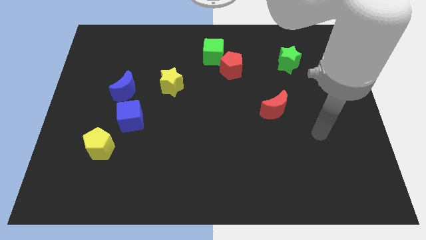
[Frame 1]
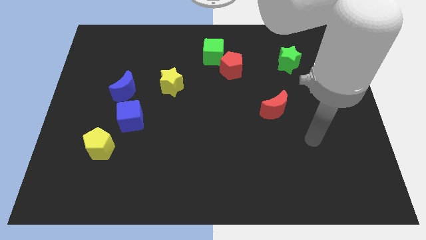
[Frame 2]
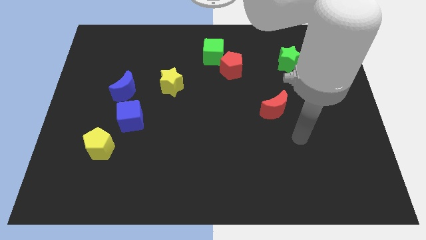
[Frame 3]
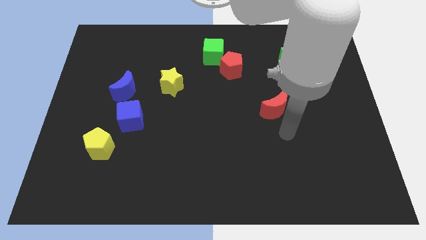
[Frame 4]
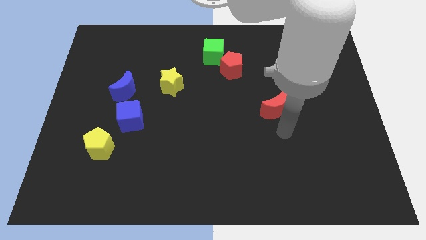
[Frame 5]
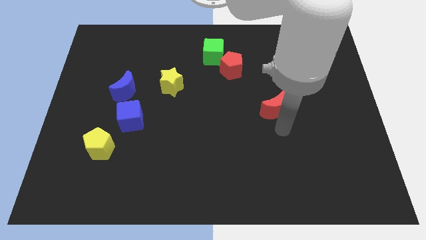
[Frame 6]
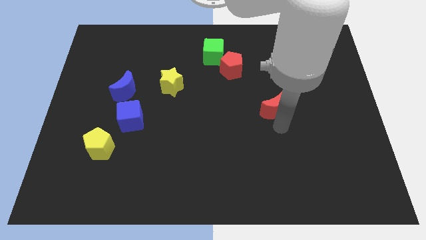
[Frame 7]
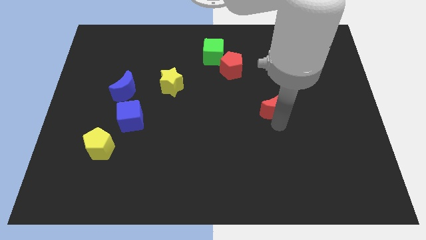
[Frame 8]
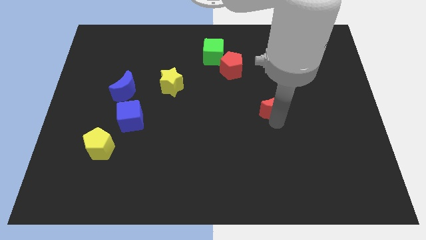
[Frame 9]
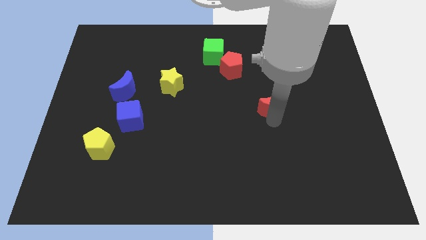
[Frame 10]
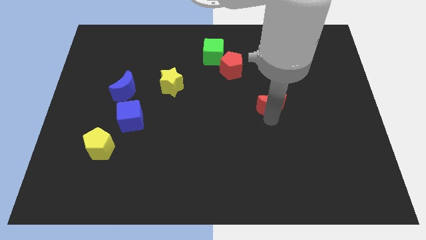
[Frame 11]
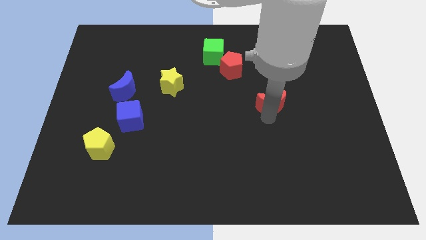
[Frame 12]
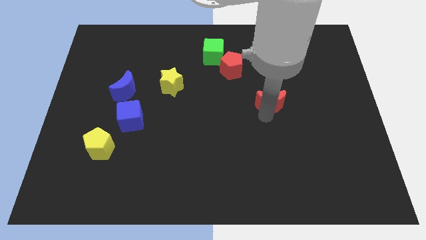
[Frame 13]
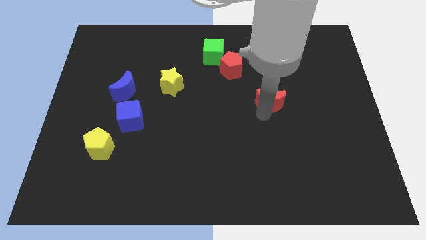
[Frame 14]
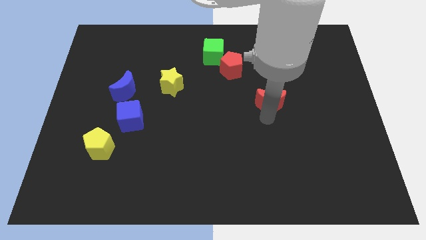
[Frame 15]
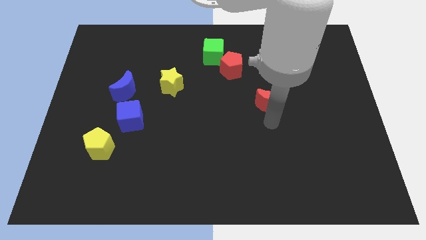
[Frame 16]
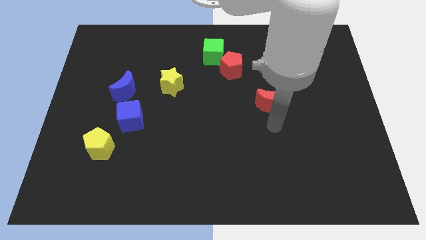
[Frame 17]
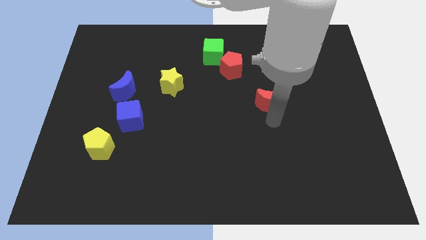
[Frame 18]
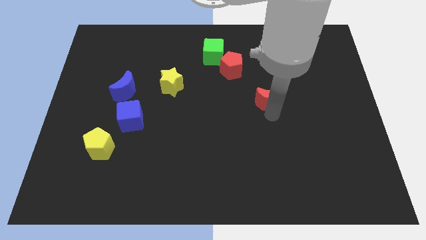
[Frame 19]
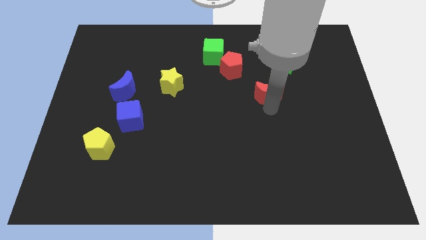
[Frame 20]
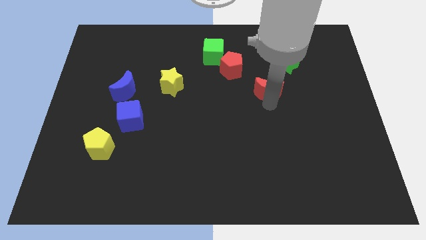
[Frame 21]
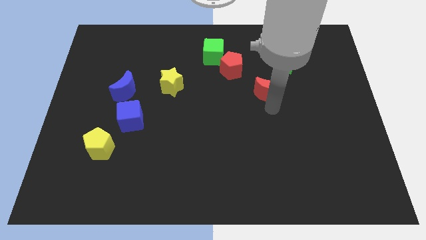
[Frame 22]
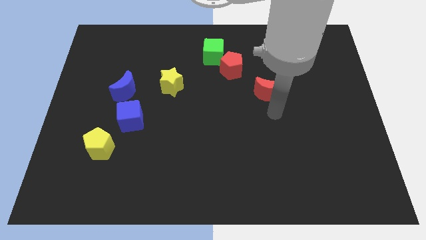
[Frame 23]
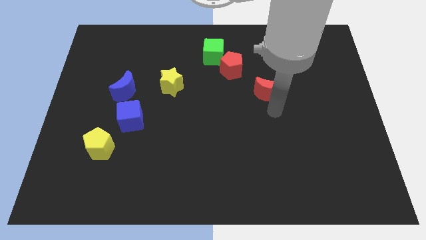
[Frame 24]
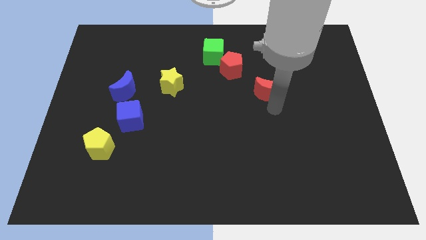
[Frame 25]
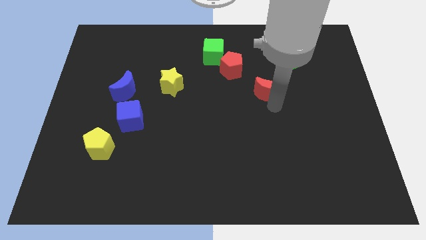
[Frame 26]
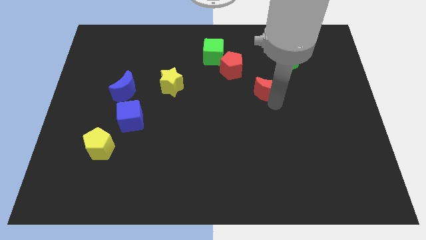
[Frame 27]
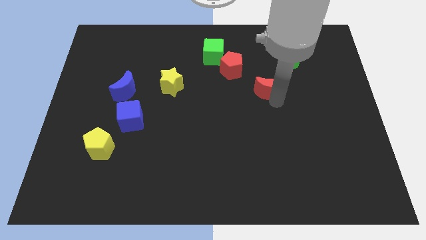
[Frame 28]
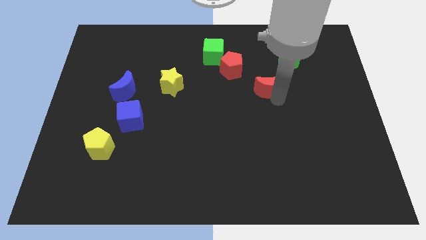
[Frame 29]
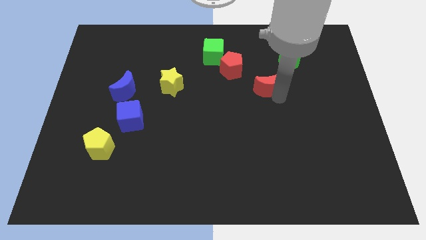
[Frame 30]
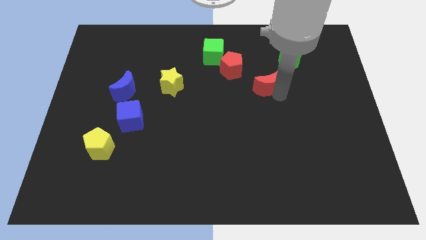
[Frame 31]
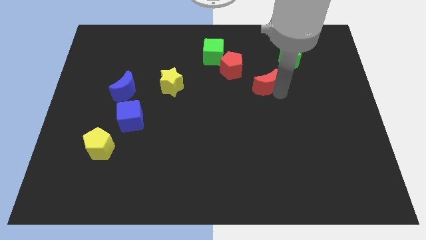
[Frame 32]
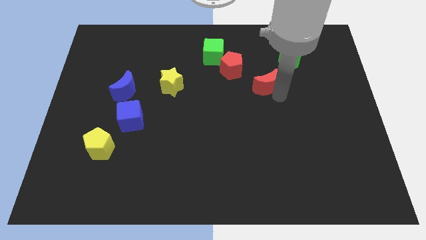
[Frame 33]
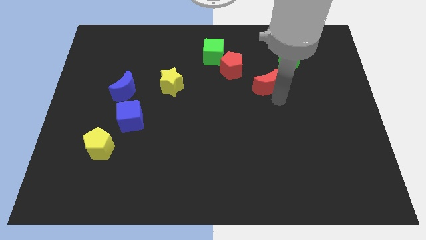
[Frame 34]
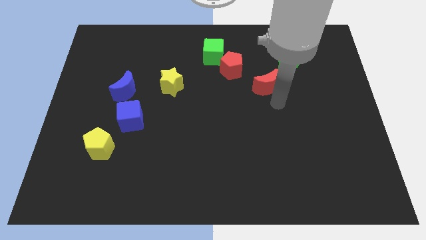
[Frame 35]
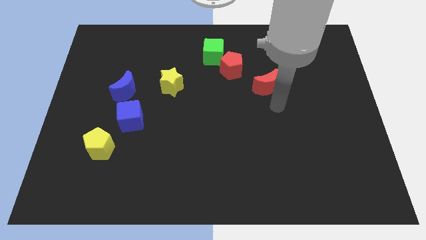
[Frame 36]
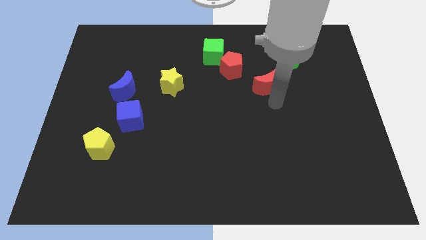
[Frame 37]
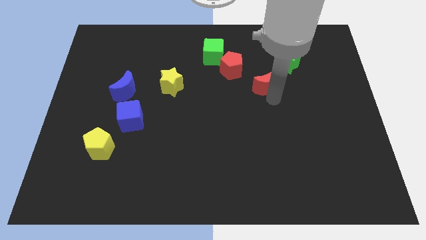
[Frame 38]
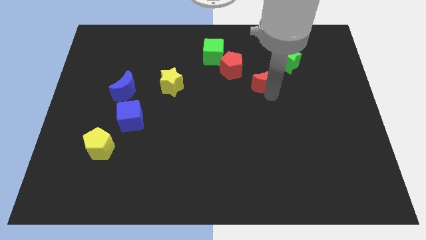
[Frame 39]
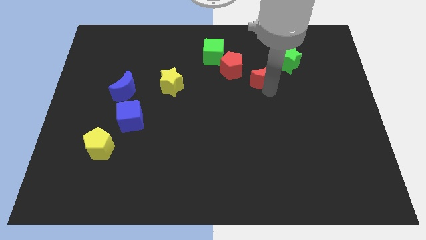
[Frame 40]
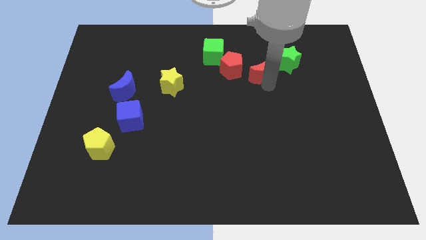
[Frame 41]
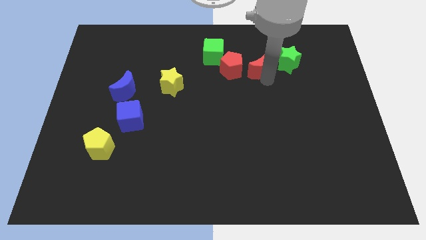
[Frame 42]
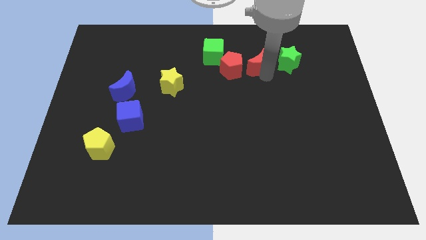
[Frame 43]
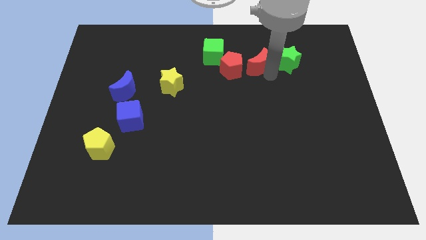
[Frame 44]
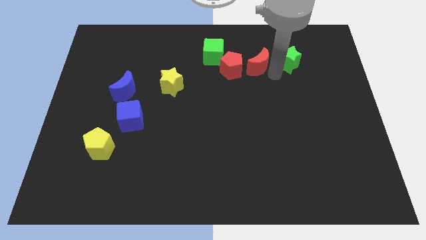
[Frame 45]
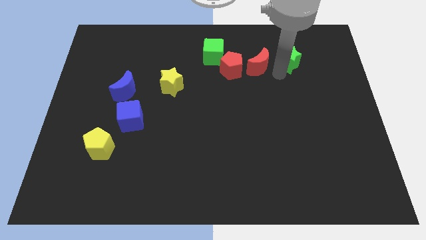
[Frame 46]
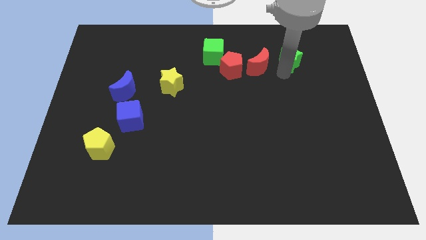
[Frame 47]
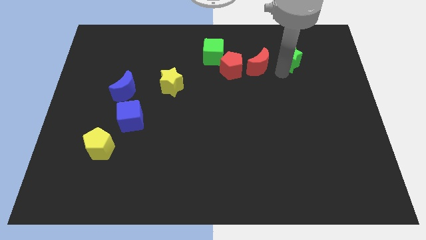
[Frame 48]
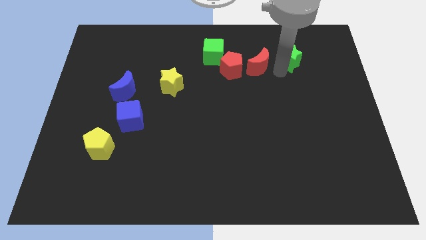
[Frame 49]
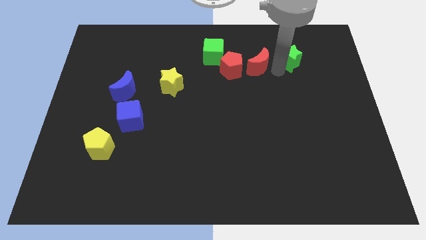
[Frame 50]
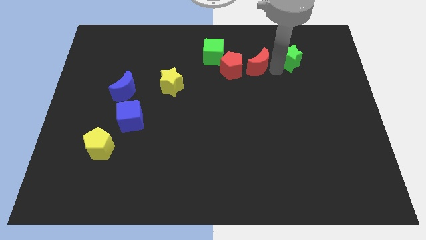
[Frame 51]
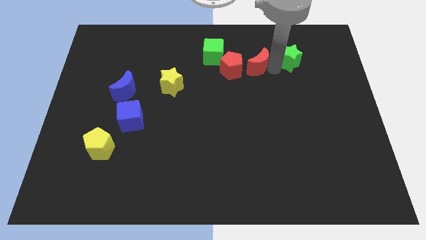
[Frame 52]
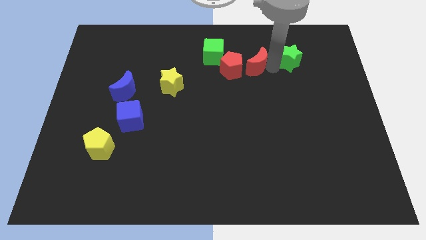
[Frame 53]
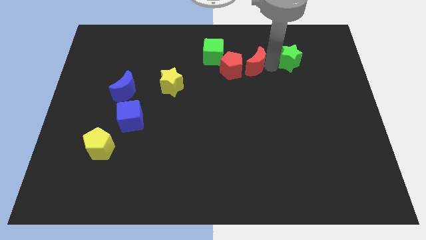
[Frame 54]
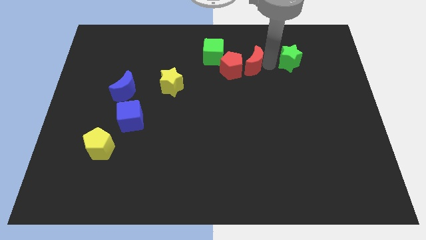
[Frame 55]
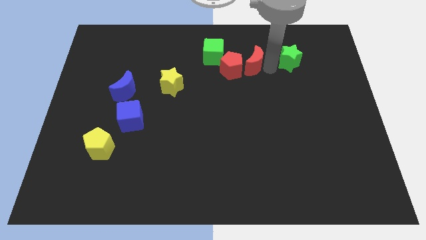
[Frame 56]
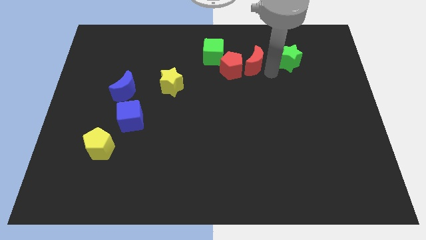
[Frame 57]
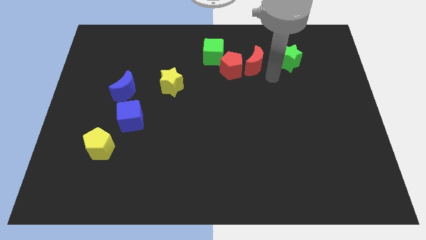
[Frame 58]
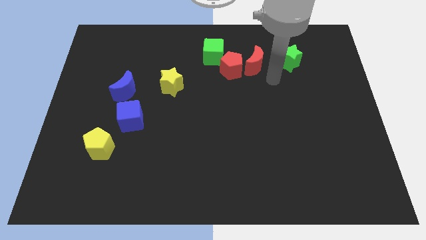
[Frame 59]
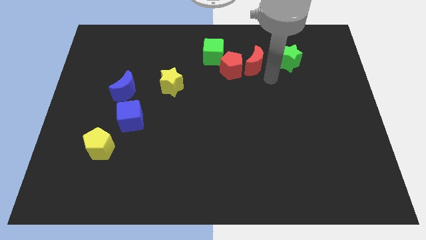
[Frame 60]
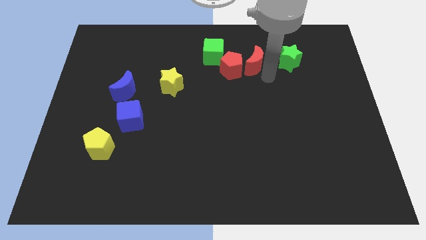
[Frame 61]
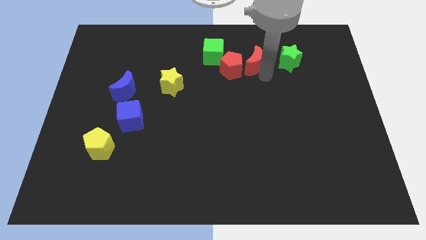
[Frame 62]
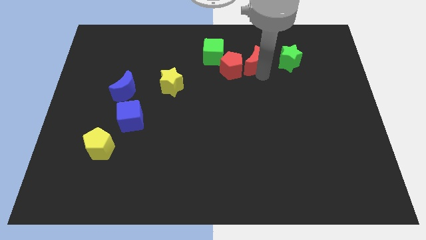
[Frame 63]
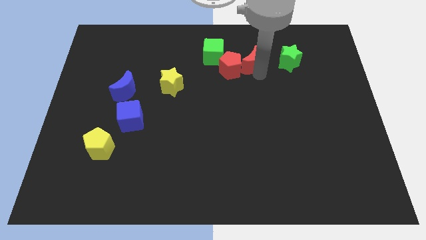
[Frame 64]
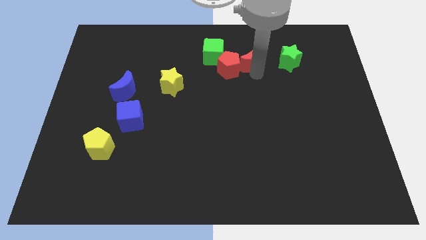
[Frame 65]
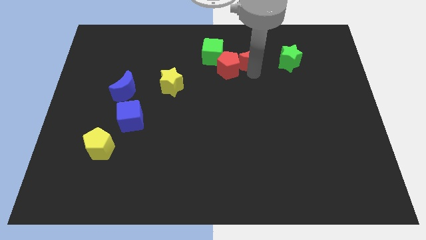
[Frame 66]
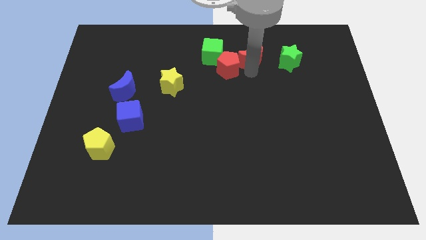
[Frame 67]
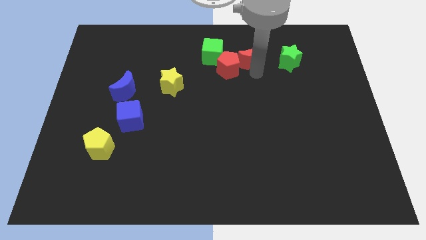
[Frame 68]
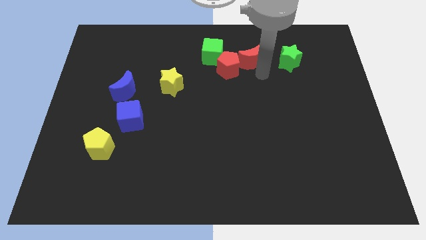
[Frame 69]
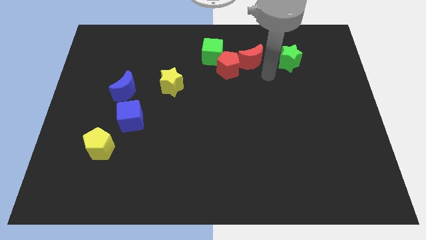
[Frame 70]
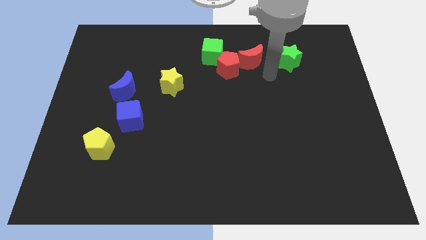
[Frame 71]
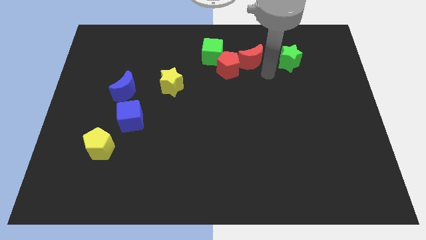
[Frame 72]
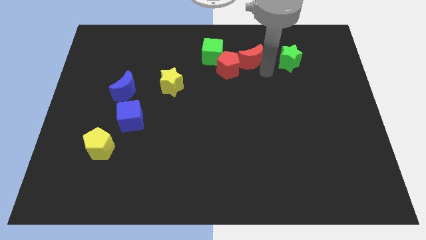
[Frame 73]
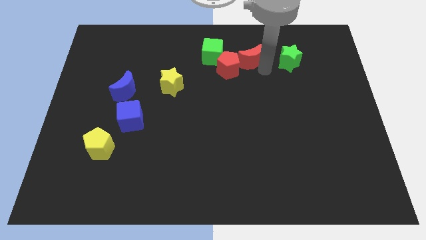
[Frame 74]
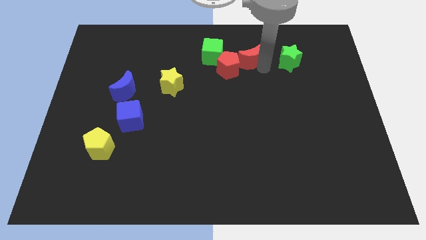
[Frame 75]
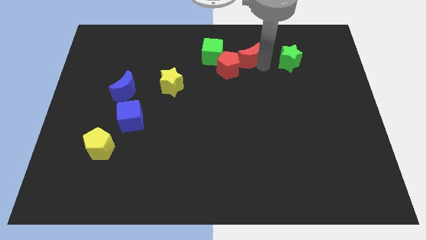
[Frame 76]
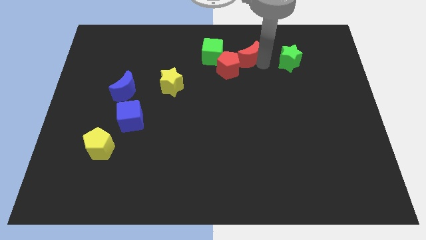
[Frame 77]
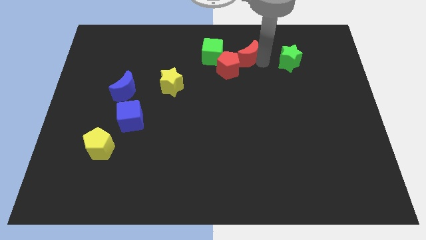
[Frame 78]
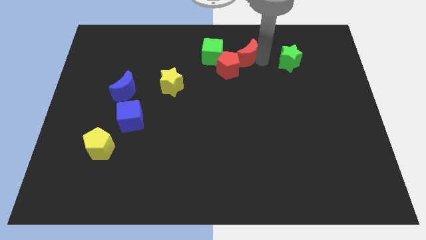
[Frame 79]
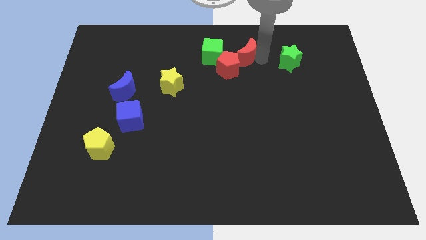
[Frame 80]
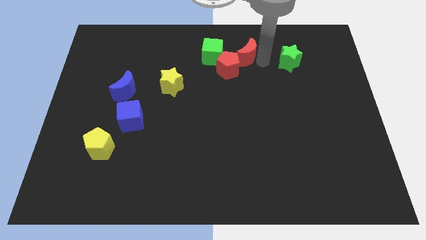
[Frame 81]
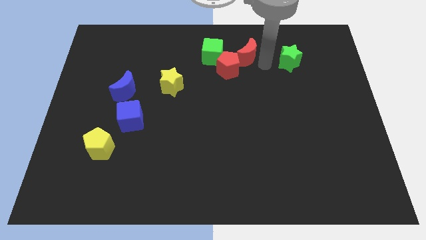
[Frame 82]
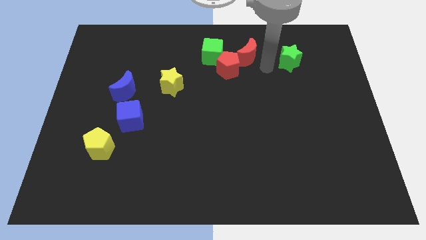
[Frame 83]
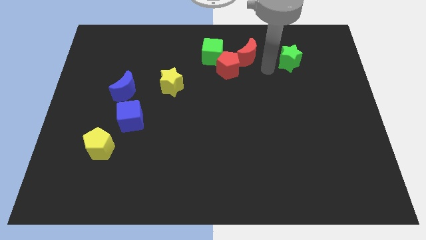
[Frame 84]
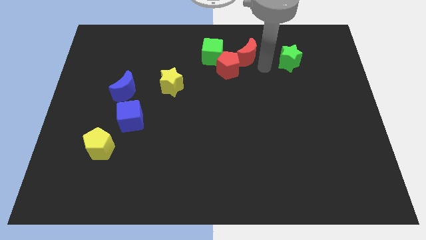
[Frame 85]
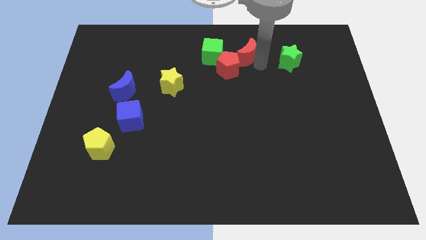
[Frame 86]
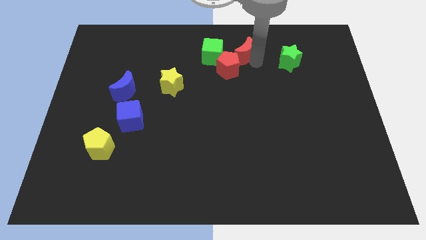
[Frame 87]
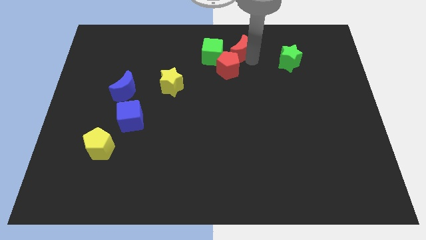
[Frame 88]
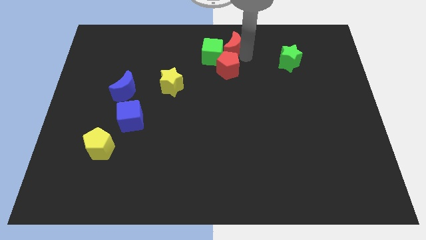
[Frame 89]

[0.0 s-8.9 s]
move the red moon to the top
